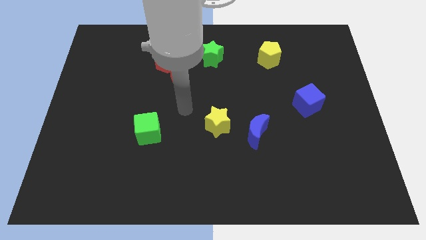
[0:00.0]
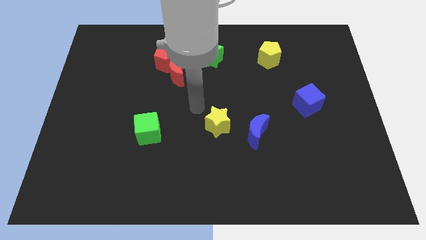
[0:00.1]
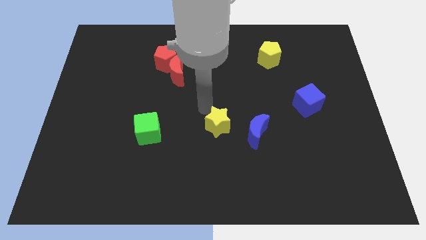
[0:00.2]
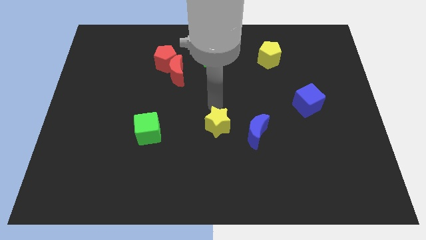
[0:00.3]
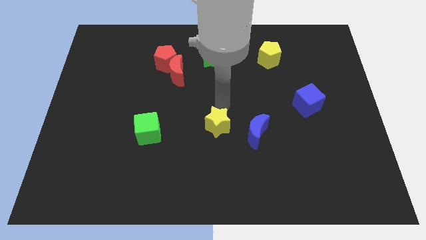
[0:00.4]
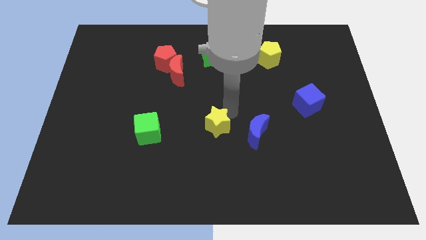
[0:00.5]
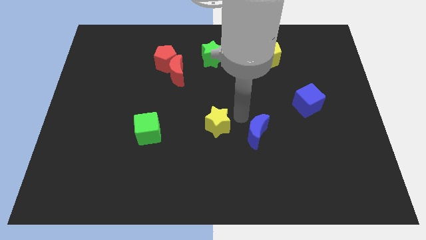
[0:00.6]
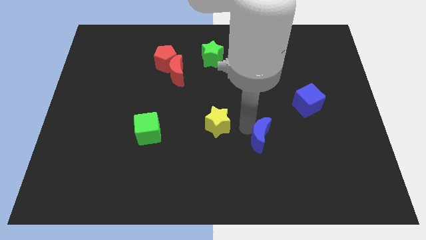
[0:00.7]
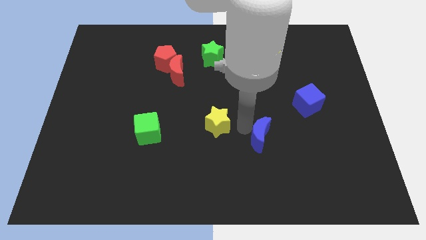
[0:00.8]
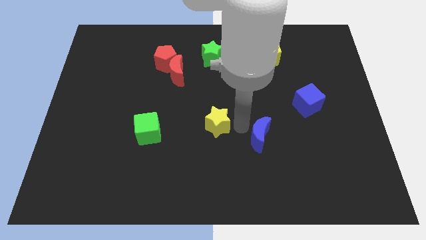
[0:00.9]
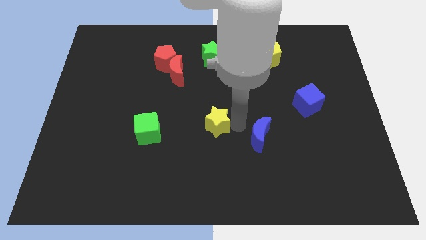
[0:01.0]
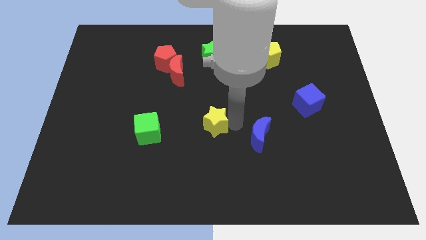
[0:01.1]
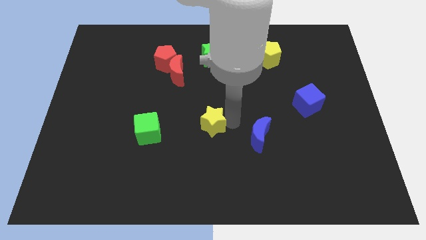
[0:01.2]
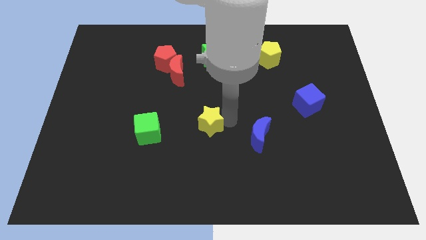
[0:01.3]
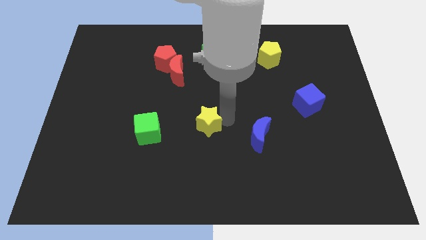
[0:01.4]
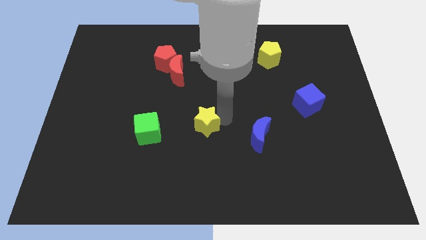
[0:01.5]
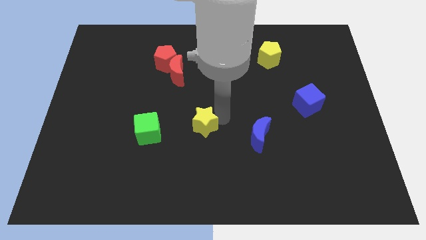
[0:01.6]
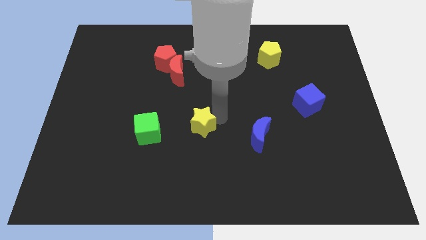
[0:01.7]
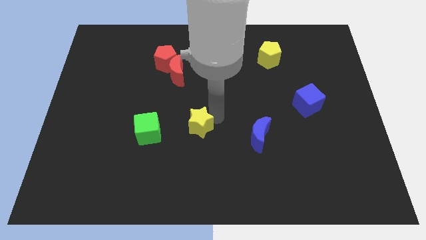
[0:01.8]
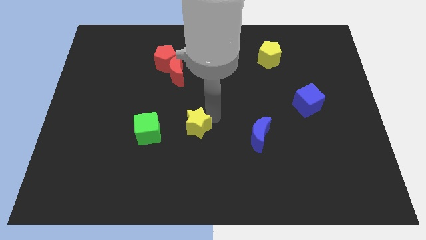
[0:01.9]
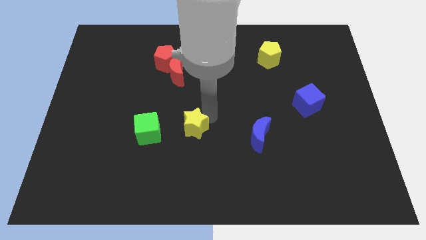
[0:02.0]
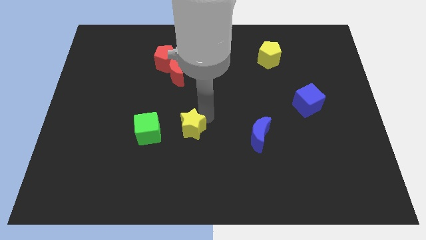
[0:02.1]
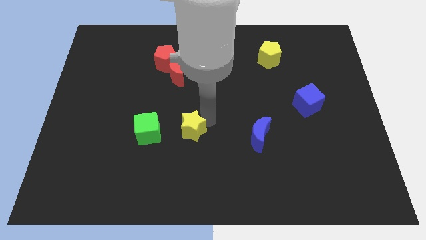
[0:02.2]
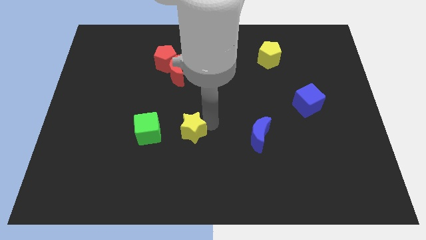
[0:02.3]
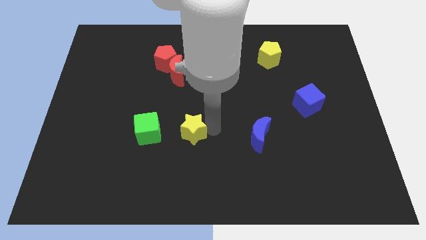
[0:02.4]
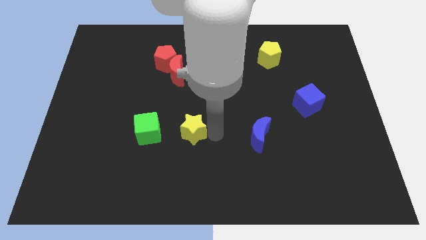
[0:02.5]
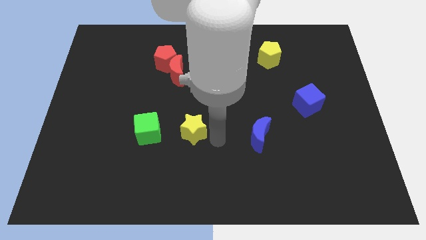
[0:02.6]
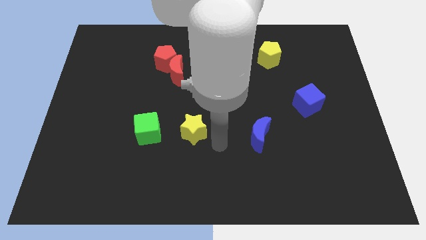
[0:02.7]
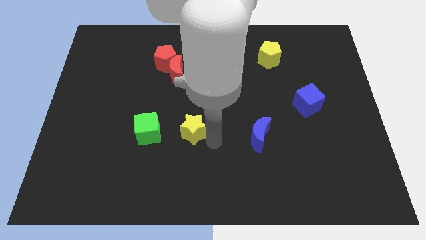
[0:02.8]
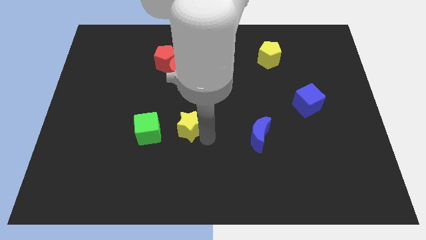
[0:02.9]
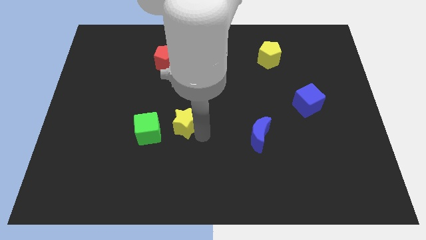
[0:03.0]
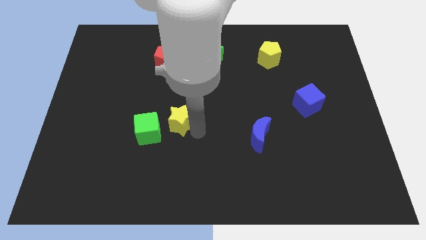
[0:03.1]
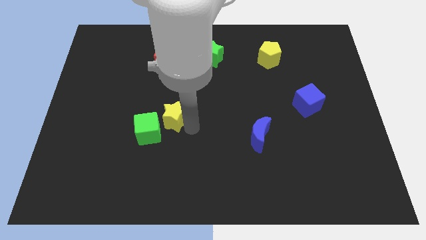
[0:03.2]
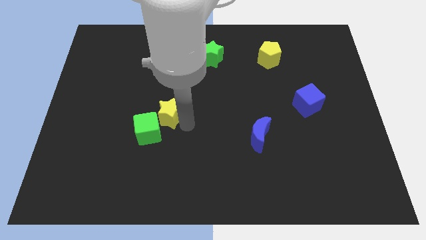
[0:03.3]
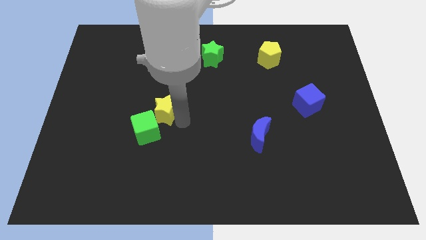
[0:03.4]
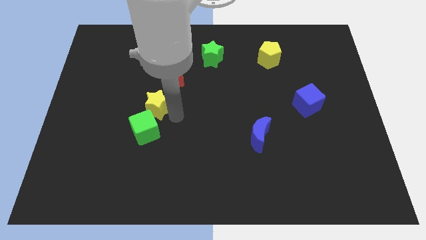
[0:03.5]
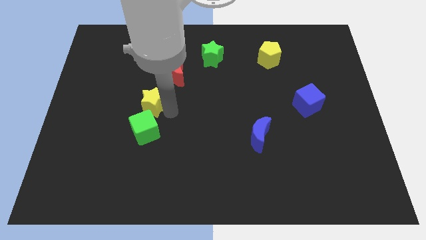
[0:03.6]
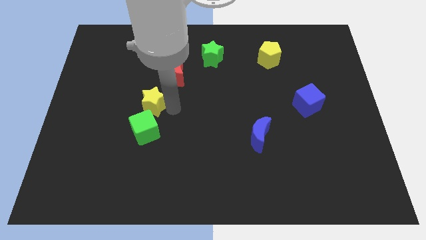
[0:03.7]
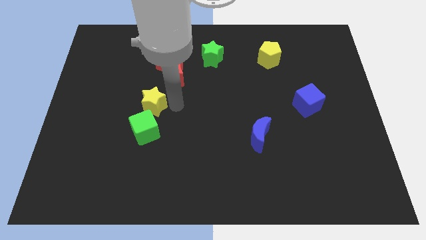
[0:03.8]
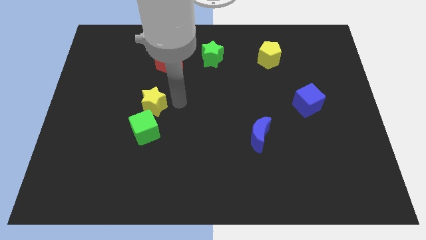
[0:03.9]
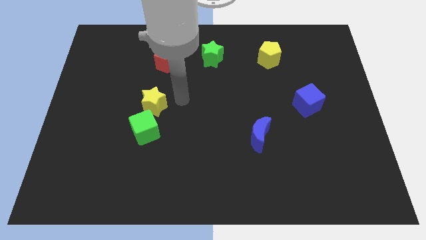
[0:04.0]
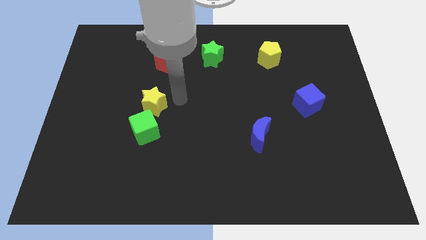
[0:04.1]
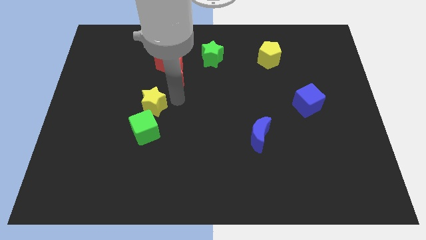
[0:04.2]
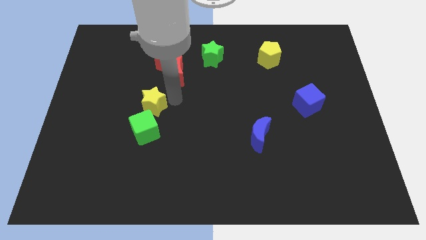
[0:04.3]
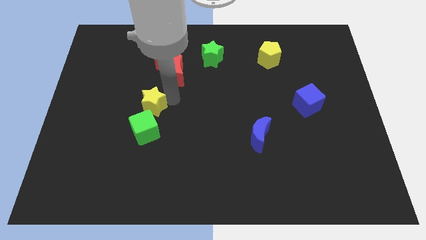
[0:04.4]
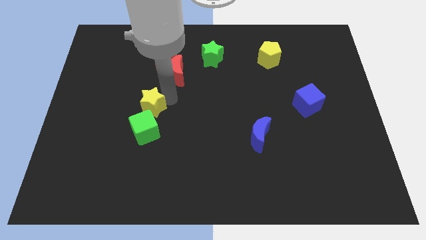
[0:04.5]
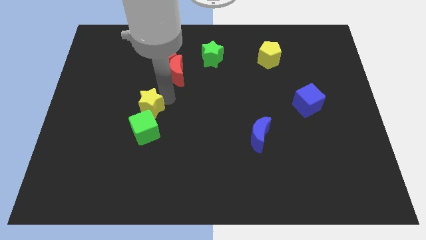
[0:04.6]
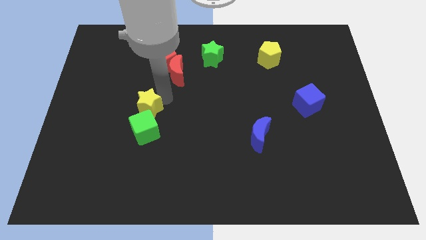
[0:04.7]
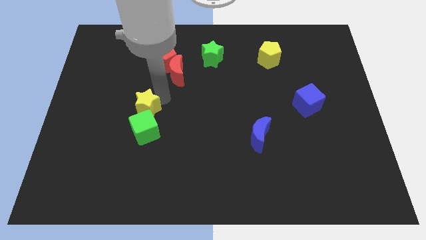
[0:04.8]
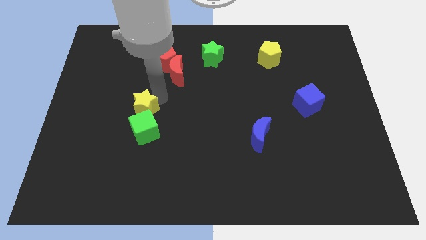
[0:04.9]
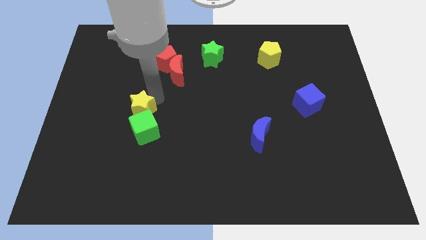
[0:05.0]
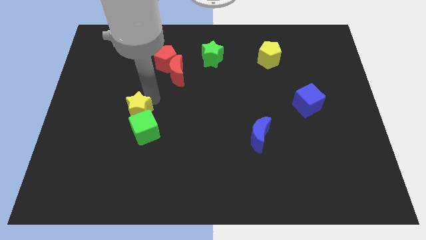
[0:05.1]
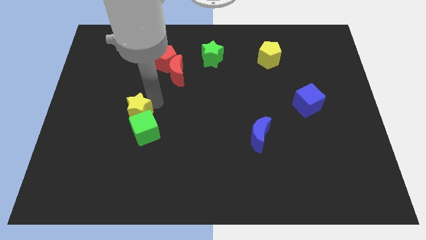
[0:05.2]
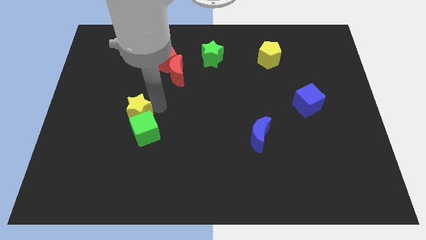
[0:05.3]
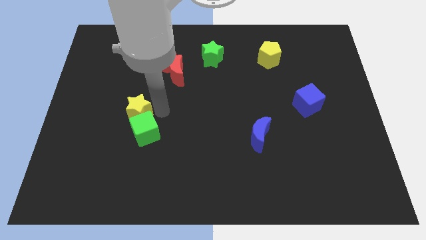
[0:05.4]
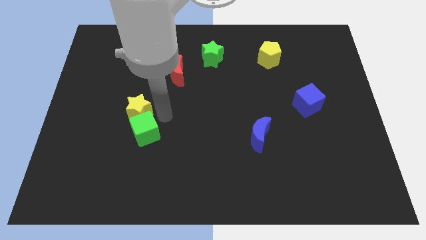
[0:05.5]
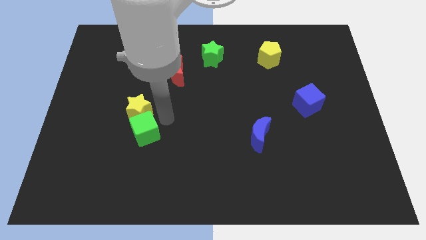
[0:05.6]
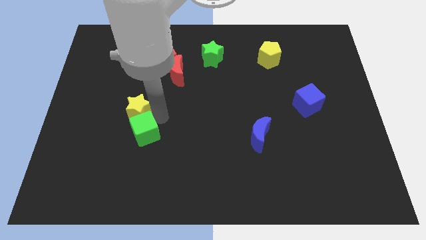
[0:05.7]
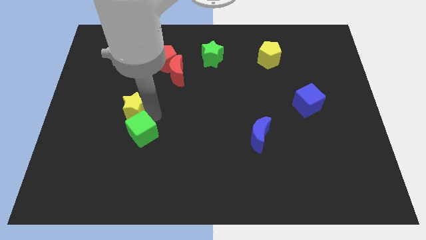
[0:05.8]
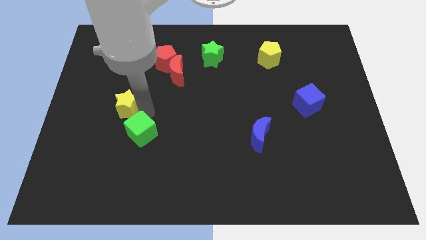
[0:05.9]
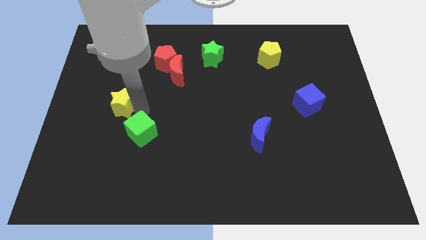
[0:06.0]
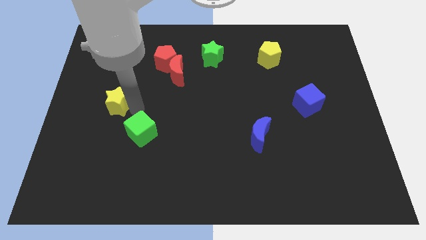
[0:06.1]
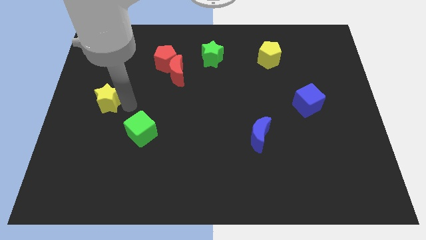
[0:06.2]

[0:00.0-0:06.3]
put the yellow star to the center left

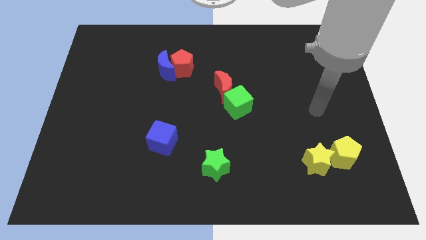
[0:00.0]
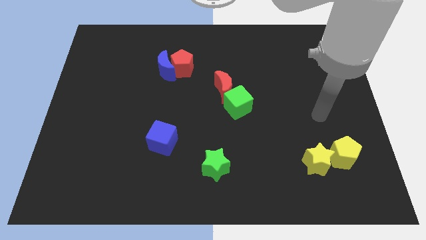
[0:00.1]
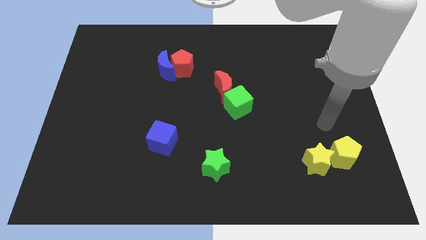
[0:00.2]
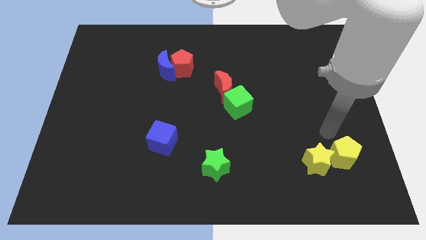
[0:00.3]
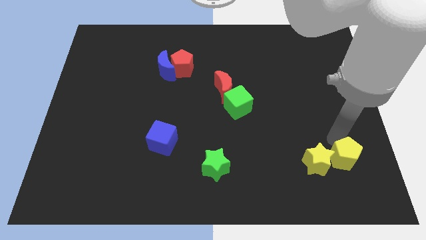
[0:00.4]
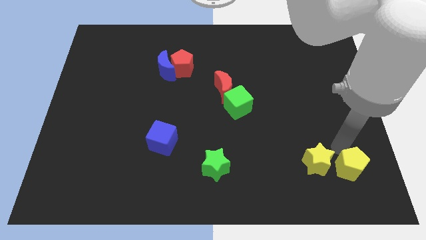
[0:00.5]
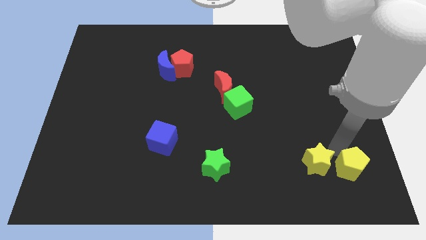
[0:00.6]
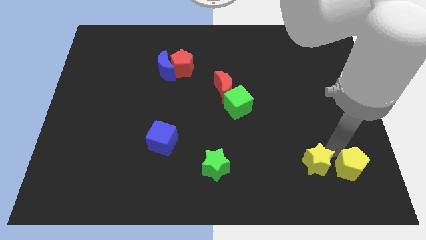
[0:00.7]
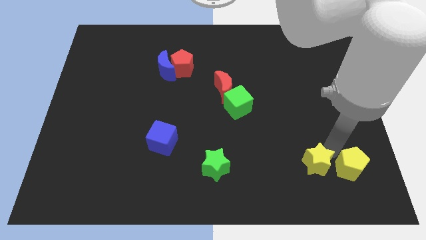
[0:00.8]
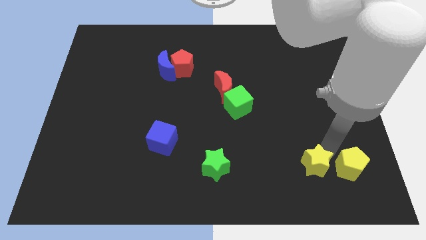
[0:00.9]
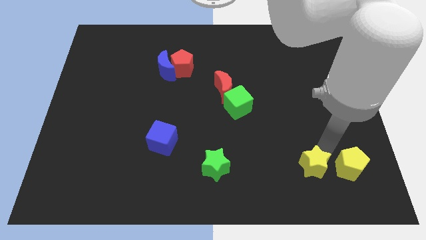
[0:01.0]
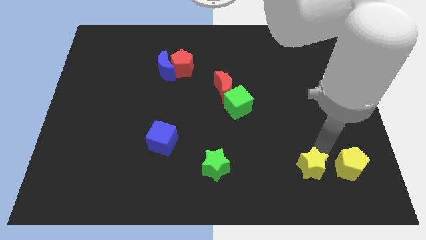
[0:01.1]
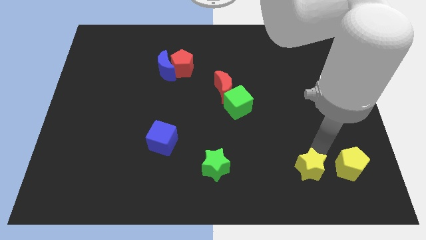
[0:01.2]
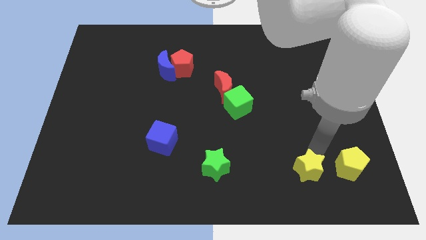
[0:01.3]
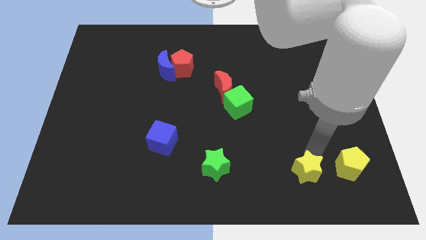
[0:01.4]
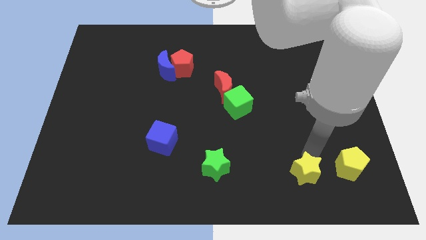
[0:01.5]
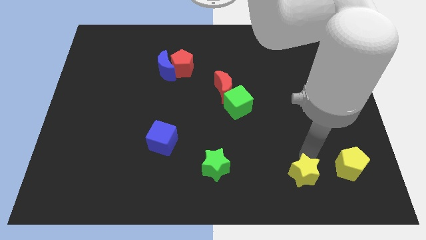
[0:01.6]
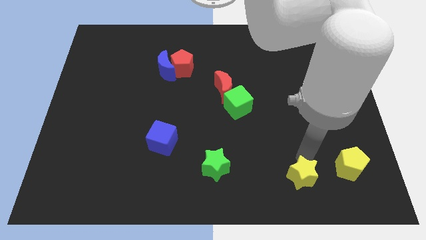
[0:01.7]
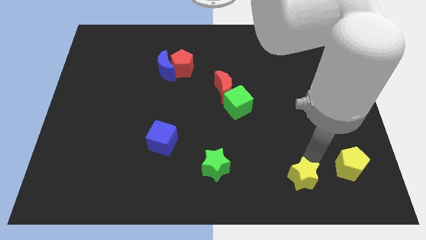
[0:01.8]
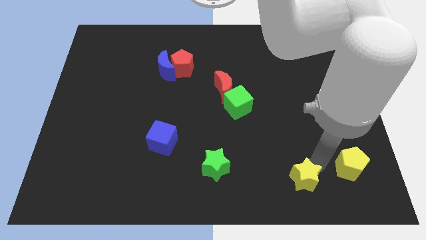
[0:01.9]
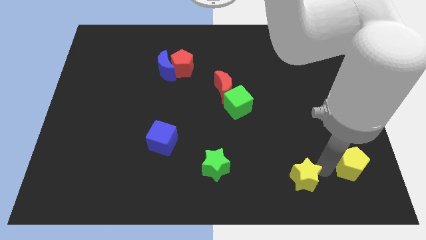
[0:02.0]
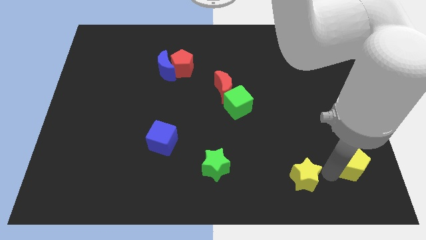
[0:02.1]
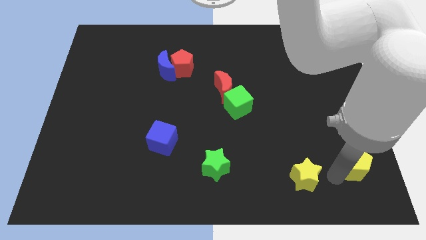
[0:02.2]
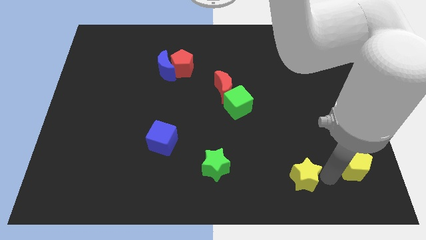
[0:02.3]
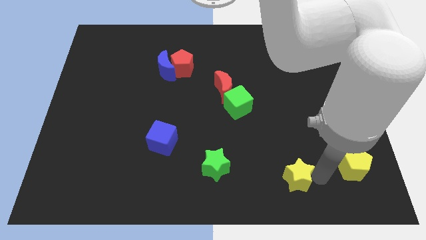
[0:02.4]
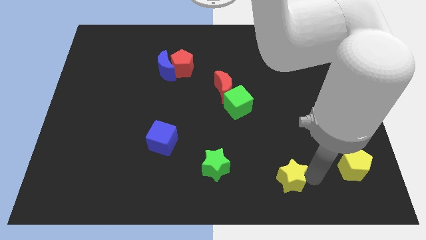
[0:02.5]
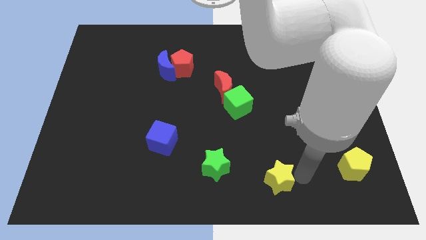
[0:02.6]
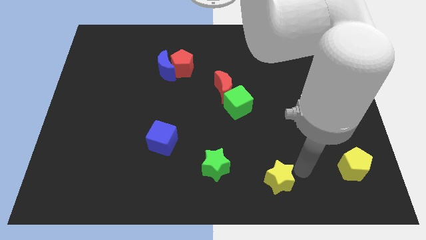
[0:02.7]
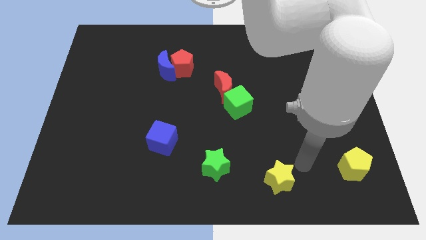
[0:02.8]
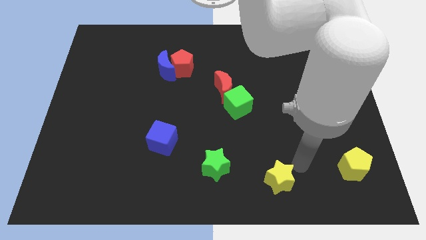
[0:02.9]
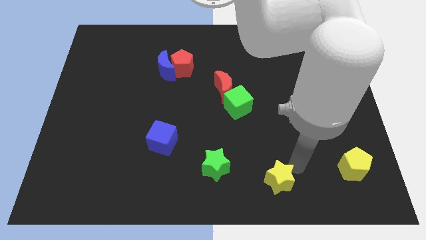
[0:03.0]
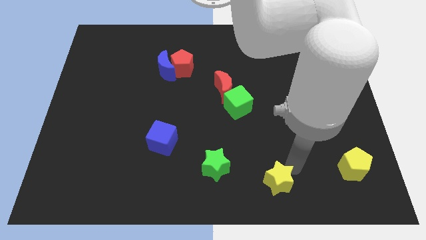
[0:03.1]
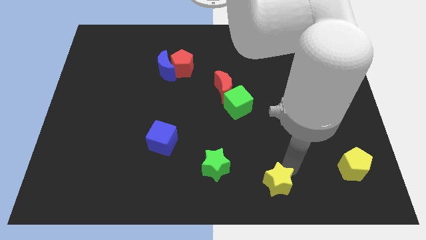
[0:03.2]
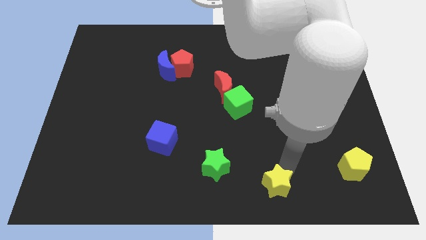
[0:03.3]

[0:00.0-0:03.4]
move the yellow star to the bottom side
